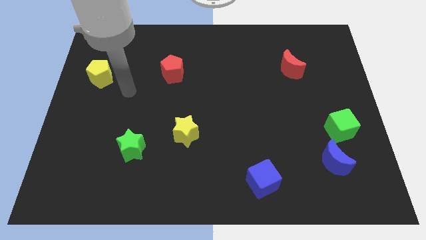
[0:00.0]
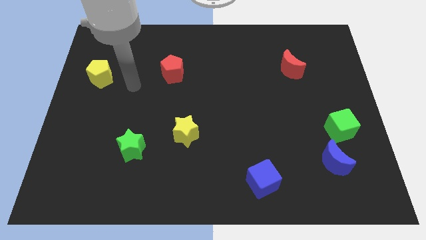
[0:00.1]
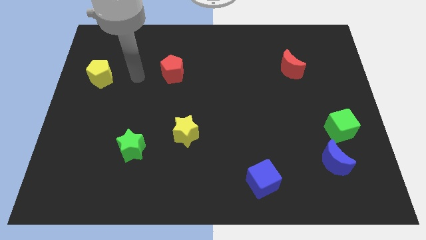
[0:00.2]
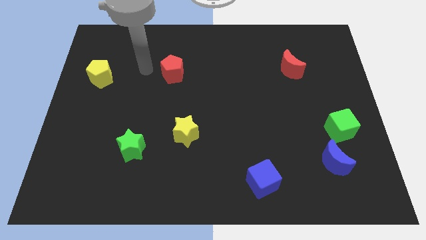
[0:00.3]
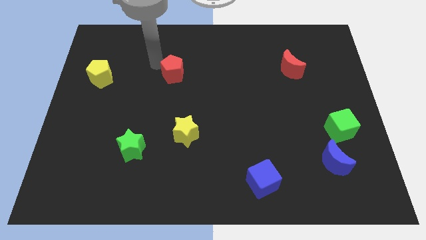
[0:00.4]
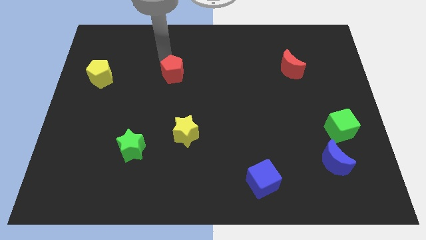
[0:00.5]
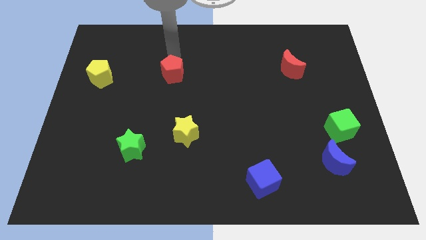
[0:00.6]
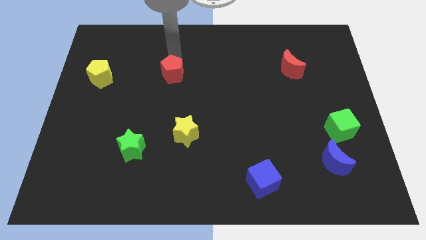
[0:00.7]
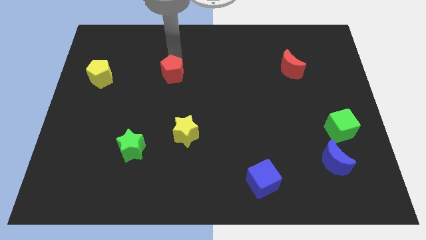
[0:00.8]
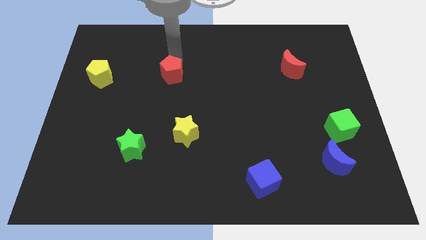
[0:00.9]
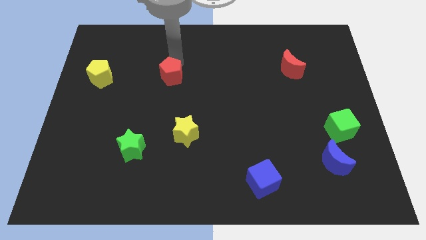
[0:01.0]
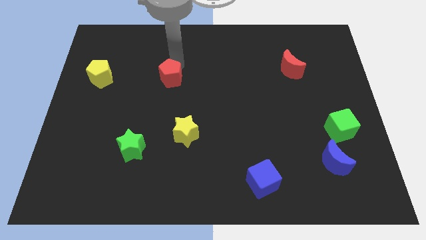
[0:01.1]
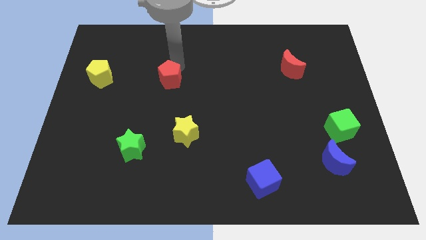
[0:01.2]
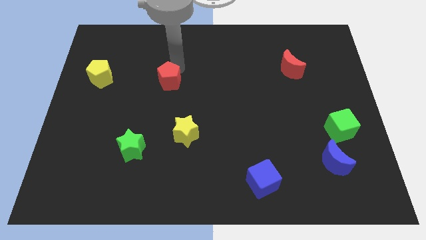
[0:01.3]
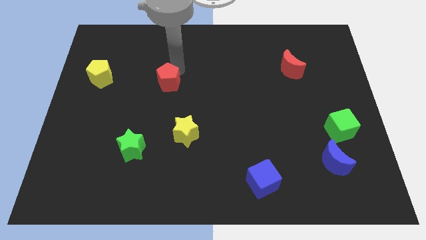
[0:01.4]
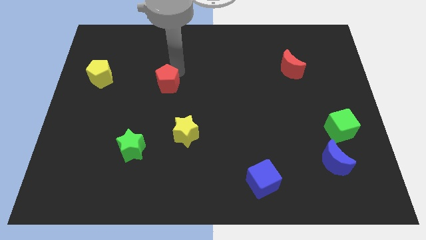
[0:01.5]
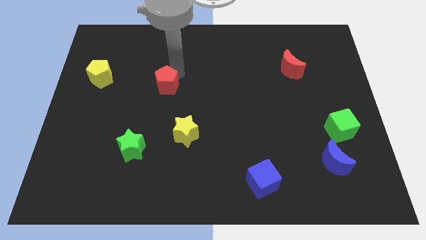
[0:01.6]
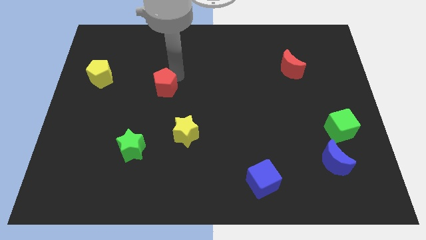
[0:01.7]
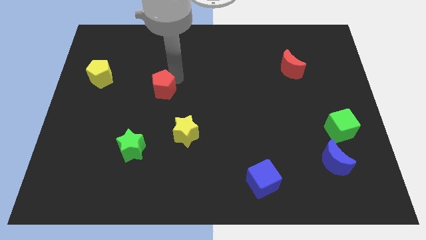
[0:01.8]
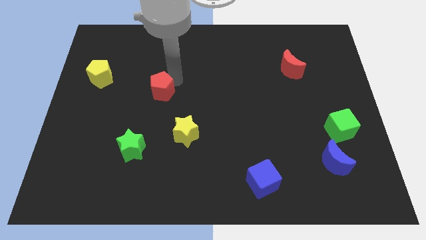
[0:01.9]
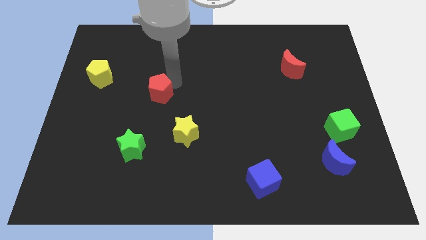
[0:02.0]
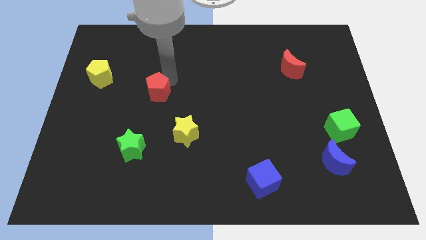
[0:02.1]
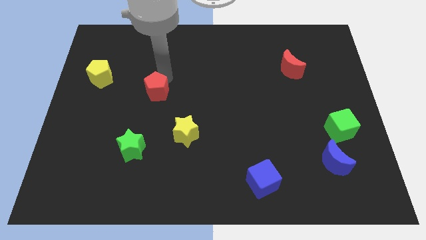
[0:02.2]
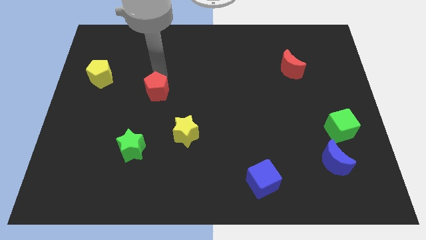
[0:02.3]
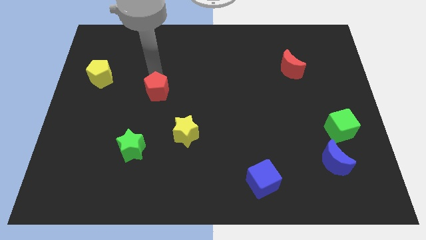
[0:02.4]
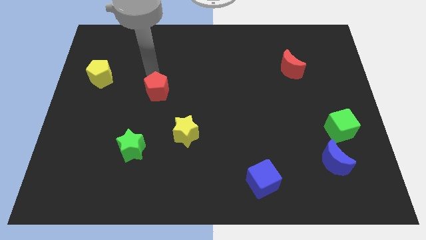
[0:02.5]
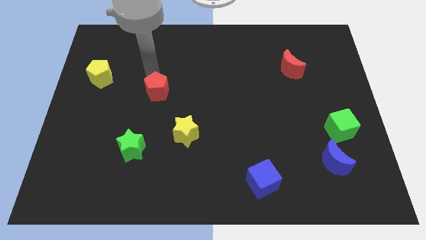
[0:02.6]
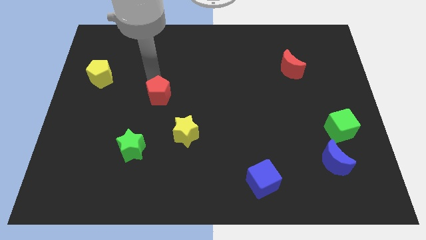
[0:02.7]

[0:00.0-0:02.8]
slightly push the red pentagon downwards

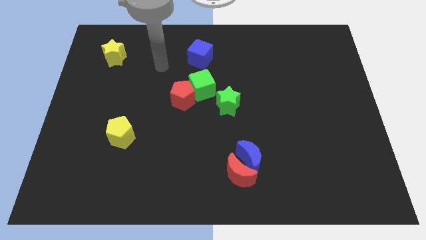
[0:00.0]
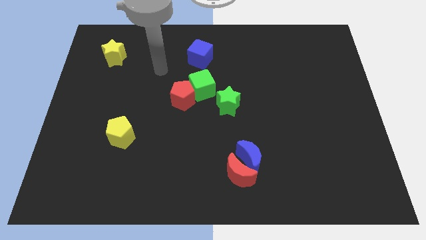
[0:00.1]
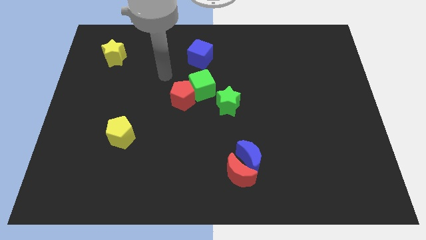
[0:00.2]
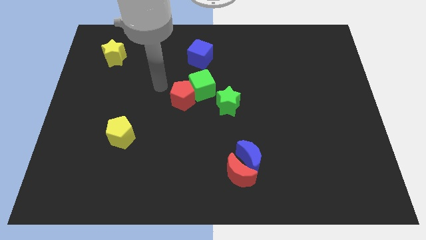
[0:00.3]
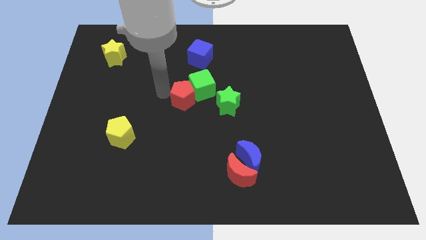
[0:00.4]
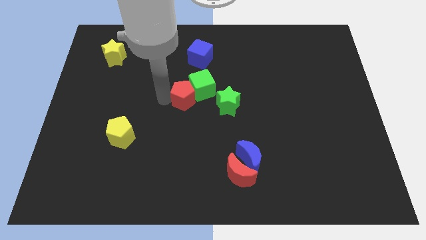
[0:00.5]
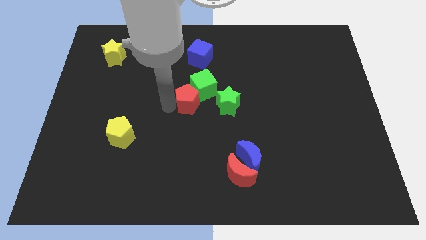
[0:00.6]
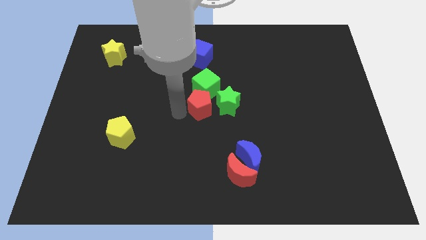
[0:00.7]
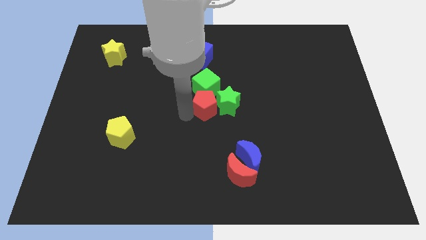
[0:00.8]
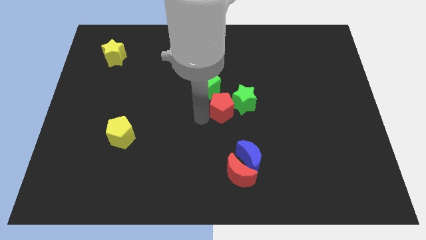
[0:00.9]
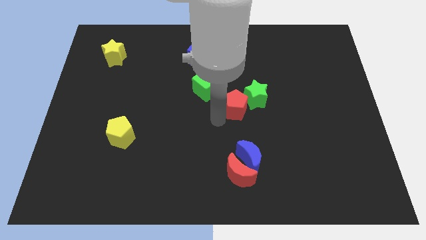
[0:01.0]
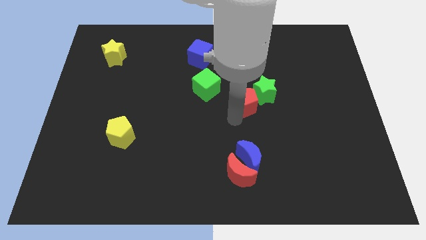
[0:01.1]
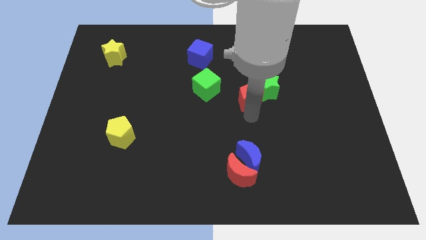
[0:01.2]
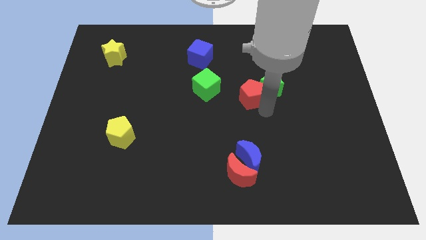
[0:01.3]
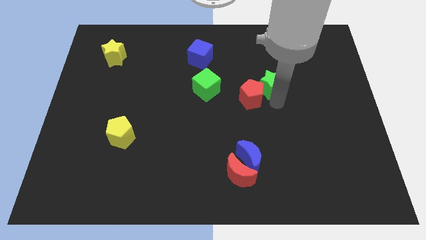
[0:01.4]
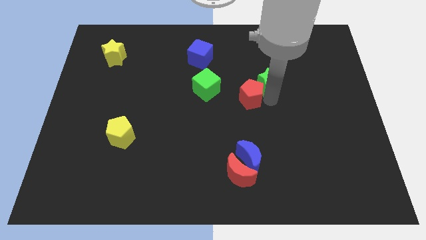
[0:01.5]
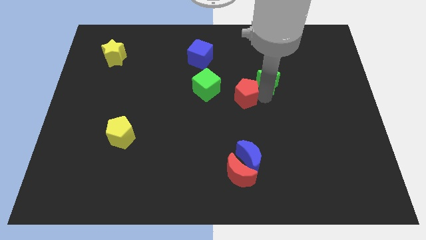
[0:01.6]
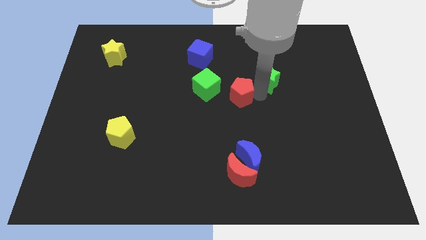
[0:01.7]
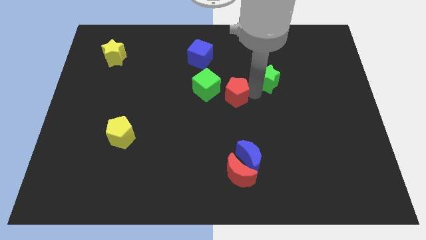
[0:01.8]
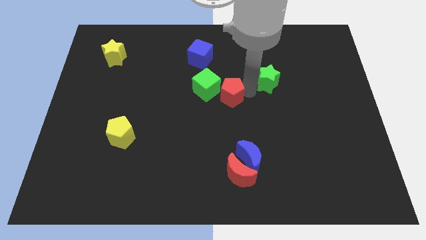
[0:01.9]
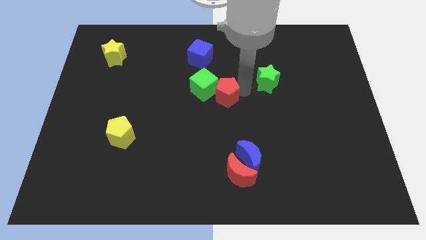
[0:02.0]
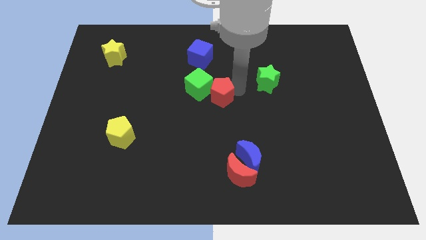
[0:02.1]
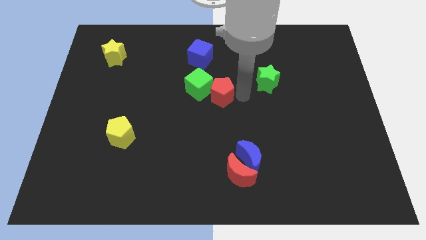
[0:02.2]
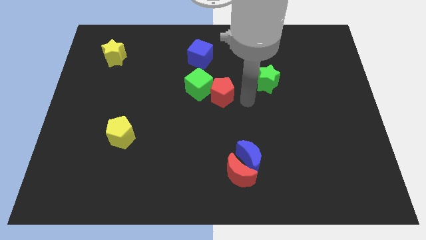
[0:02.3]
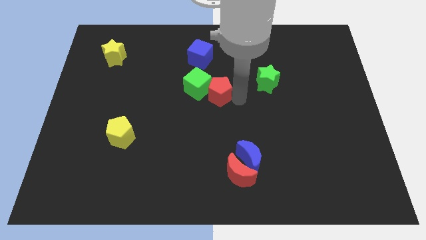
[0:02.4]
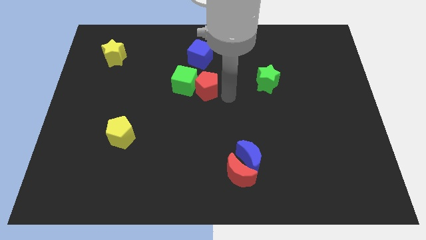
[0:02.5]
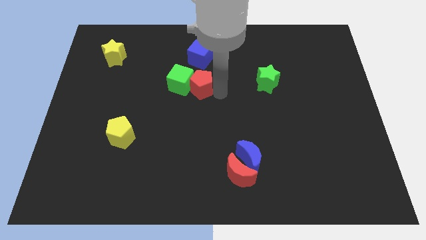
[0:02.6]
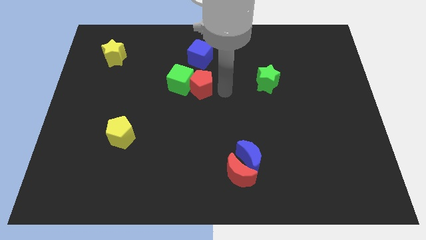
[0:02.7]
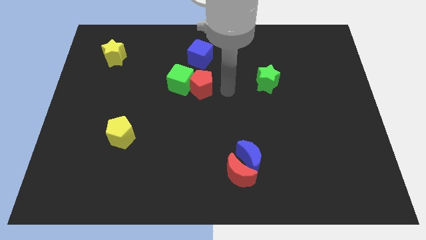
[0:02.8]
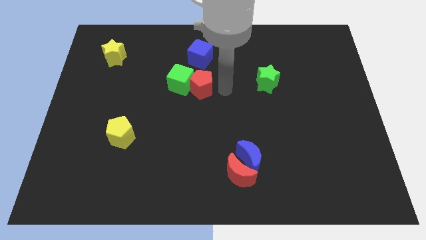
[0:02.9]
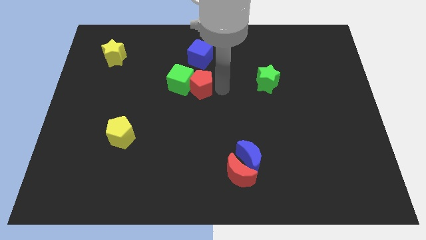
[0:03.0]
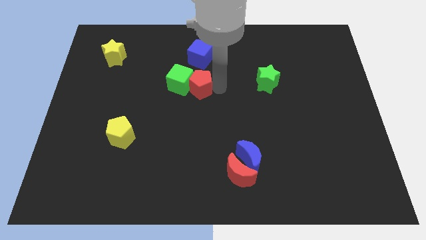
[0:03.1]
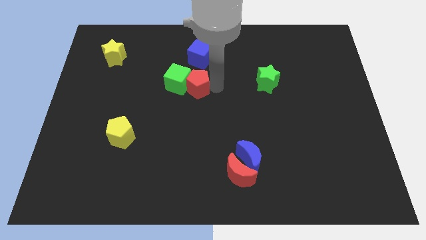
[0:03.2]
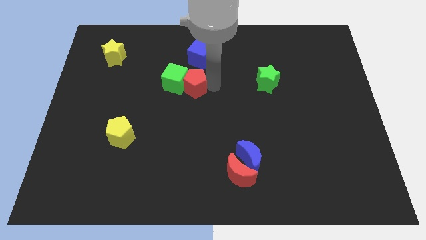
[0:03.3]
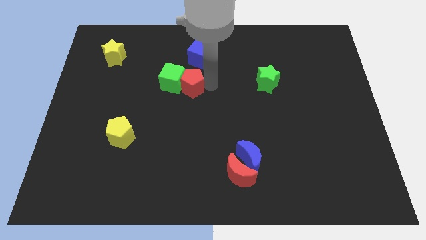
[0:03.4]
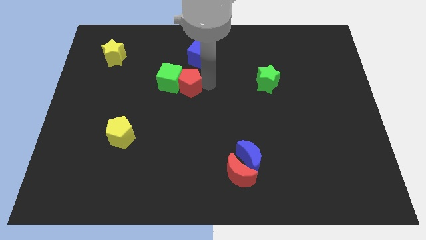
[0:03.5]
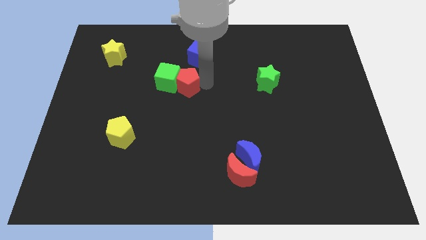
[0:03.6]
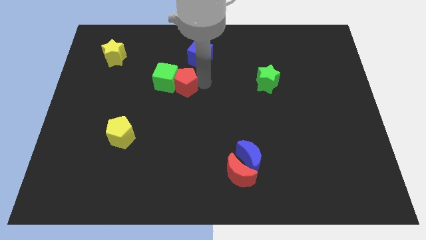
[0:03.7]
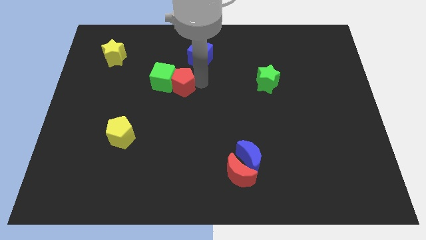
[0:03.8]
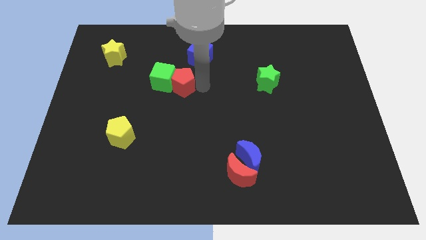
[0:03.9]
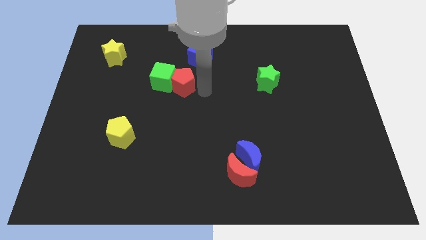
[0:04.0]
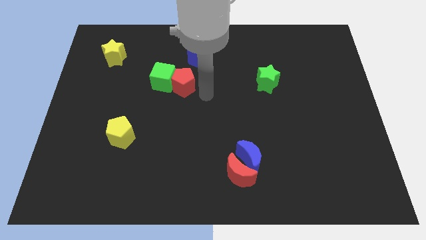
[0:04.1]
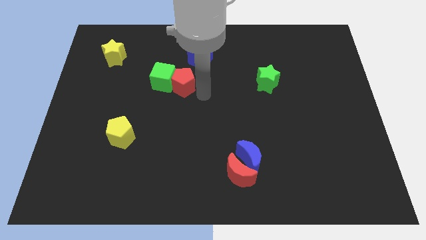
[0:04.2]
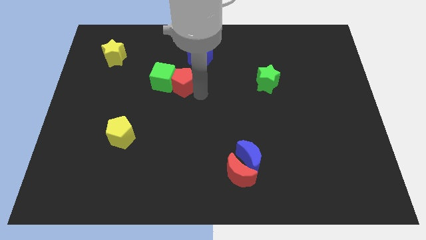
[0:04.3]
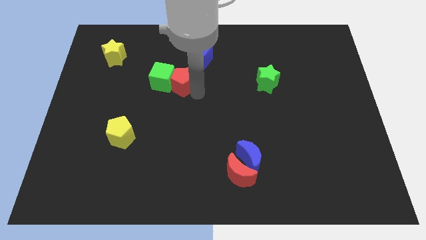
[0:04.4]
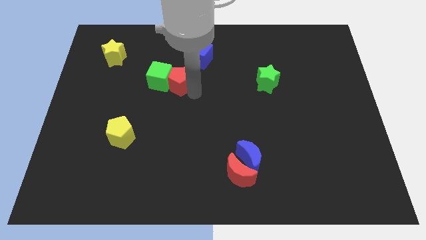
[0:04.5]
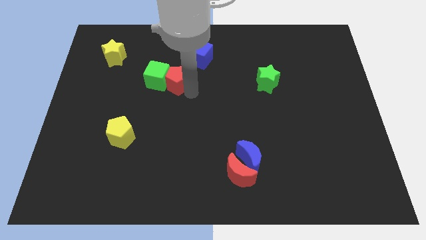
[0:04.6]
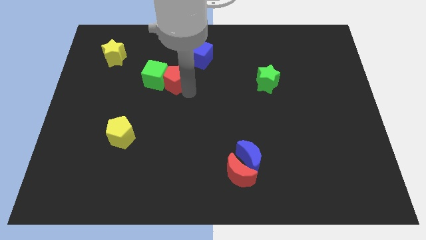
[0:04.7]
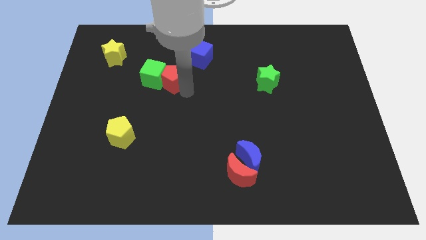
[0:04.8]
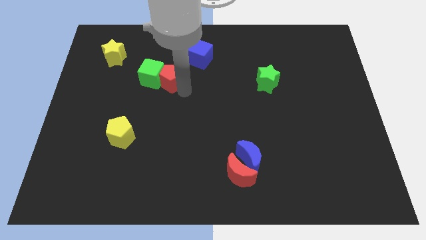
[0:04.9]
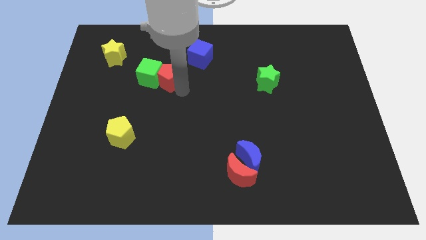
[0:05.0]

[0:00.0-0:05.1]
slightly slide the red pentagon up and then left

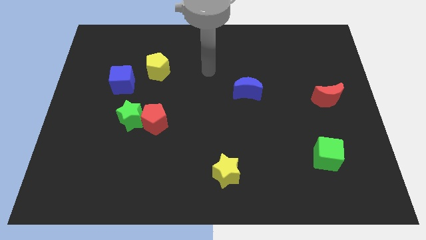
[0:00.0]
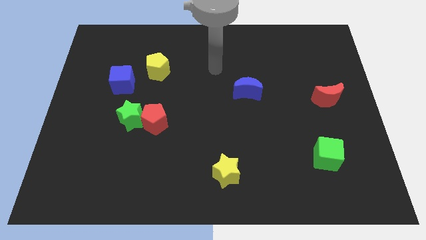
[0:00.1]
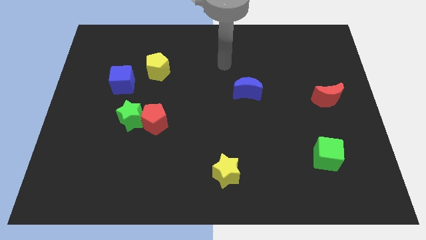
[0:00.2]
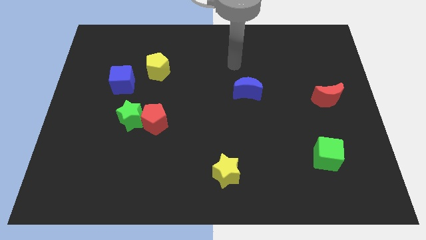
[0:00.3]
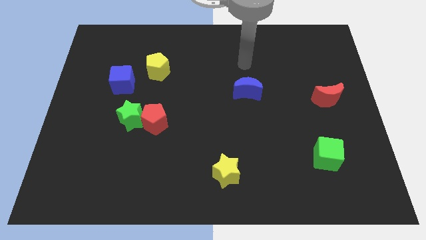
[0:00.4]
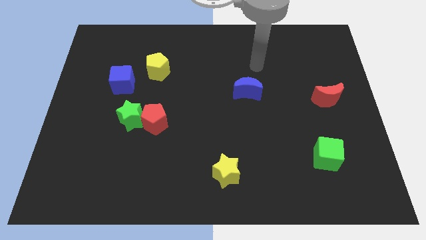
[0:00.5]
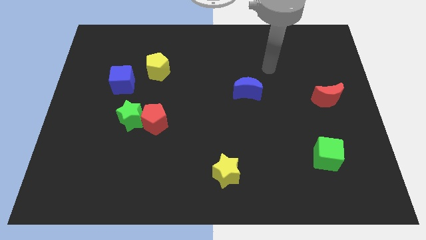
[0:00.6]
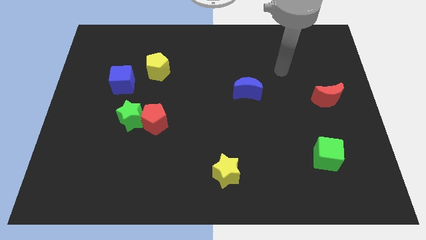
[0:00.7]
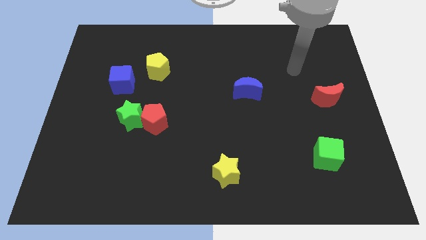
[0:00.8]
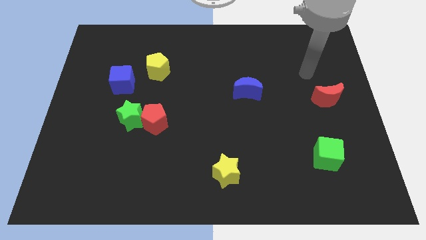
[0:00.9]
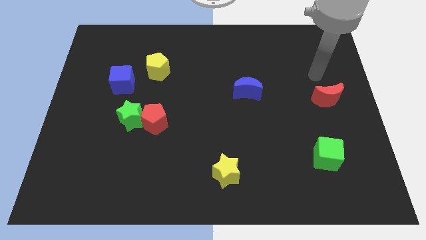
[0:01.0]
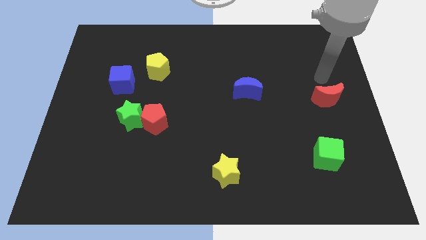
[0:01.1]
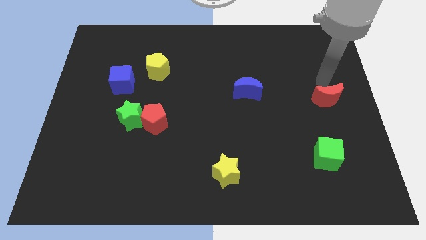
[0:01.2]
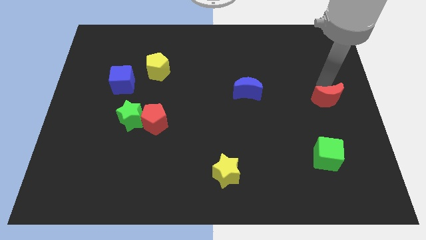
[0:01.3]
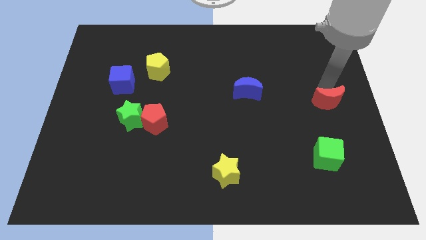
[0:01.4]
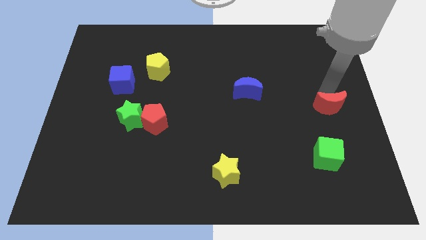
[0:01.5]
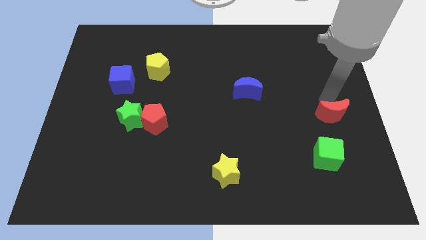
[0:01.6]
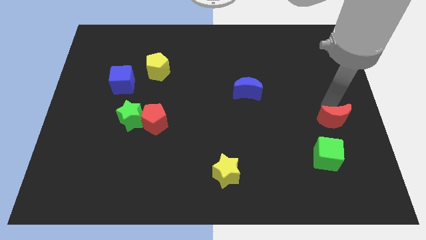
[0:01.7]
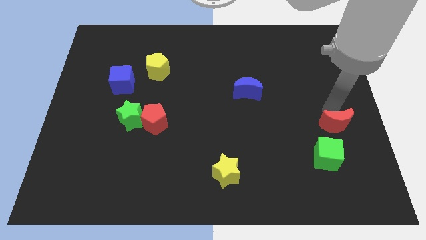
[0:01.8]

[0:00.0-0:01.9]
move the red moon down a little
